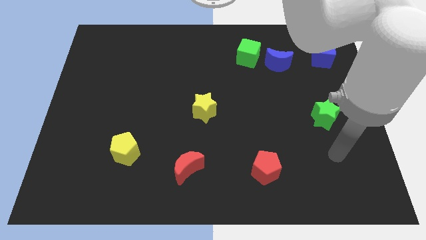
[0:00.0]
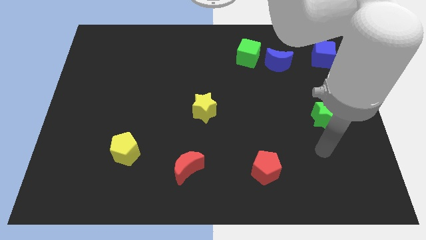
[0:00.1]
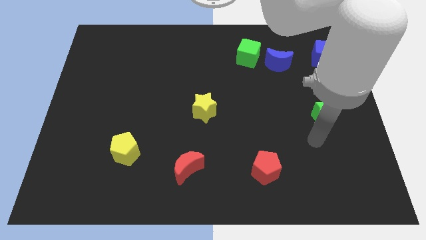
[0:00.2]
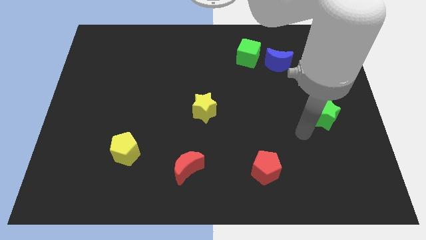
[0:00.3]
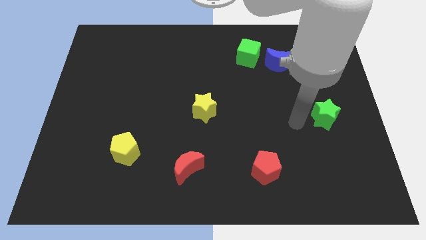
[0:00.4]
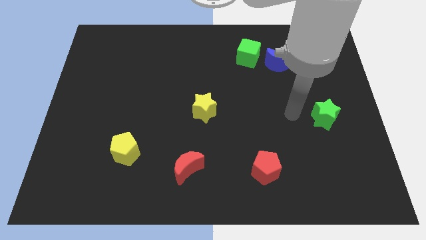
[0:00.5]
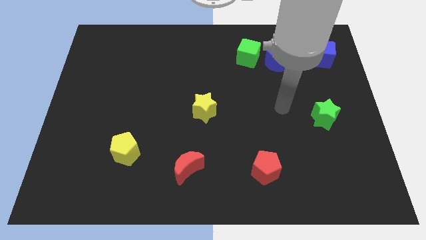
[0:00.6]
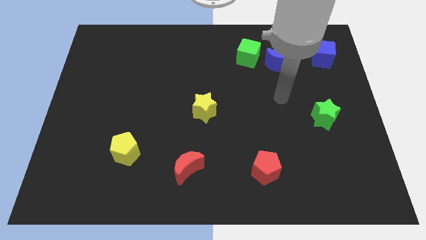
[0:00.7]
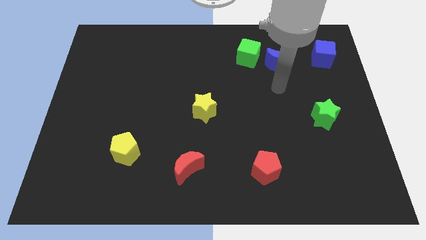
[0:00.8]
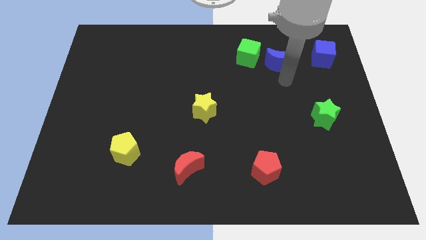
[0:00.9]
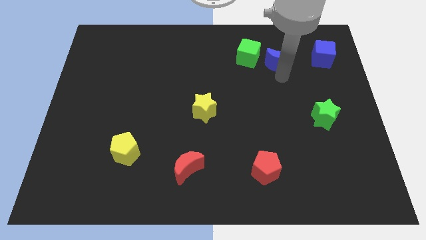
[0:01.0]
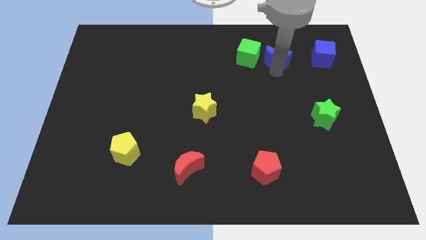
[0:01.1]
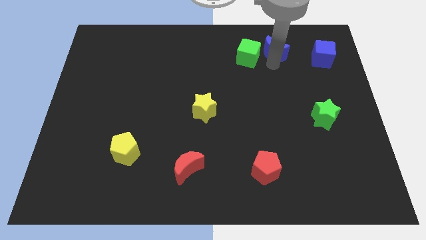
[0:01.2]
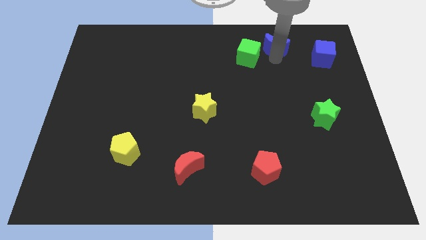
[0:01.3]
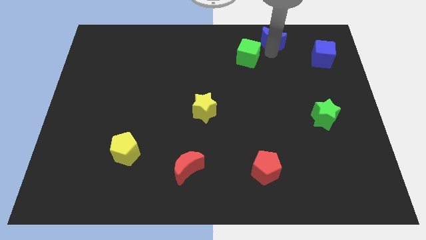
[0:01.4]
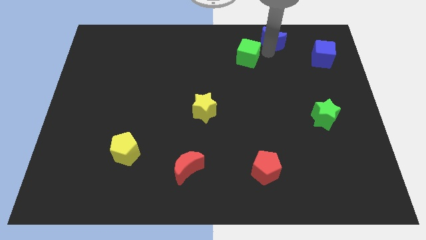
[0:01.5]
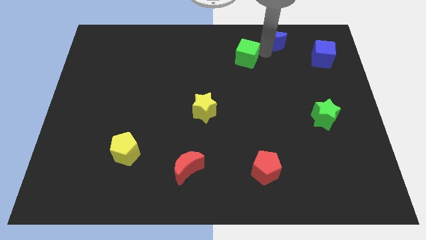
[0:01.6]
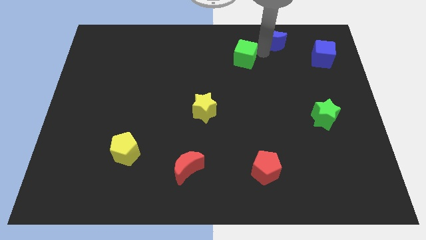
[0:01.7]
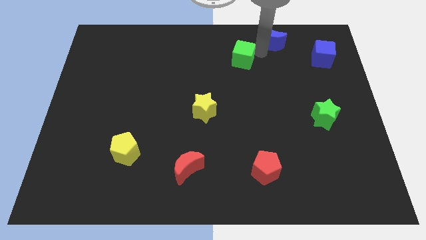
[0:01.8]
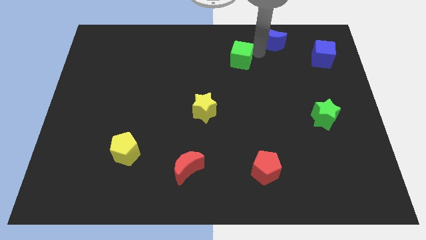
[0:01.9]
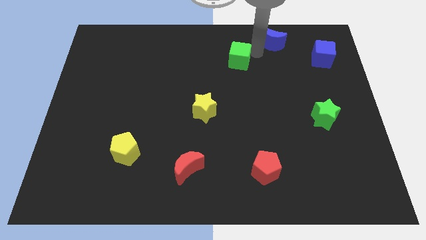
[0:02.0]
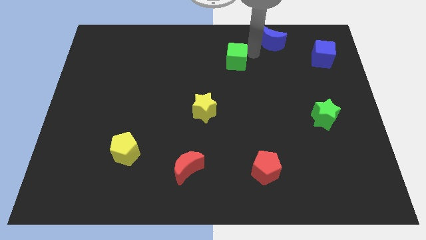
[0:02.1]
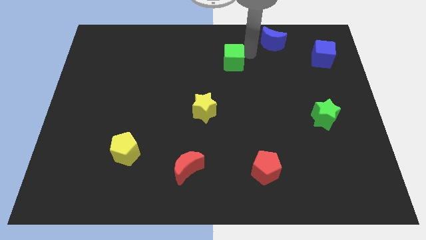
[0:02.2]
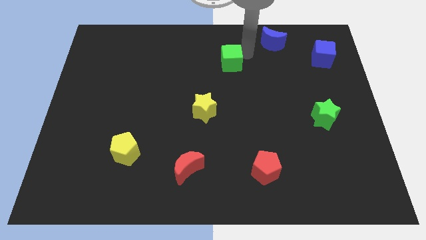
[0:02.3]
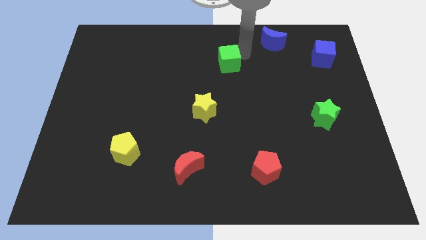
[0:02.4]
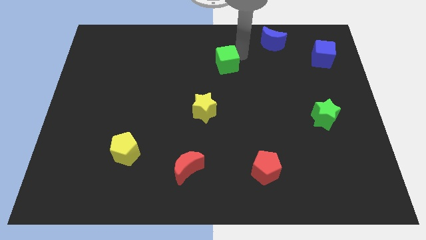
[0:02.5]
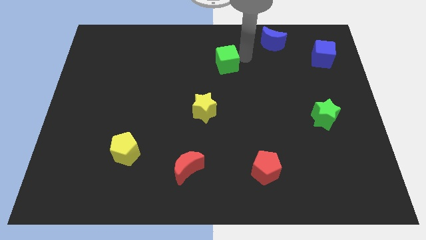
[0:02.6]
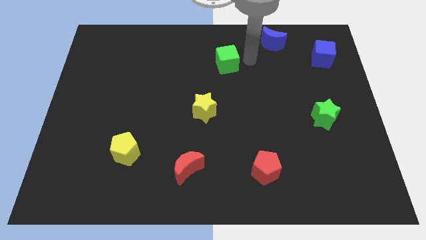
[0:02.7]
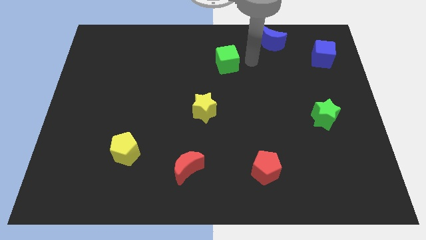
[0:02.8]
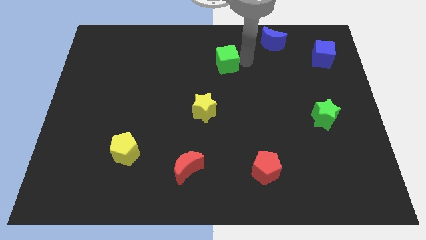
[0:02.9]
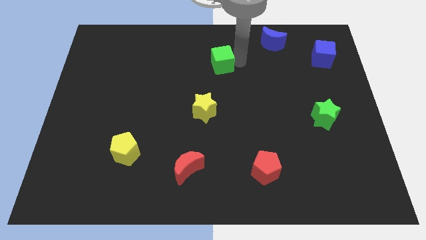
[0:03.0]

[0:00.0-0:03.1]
move the green cube left slightly

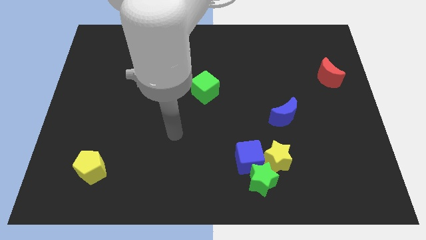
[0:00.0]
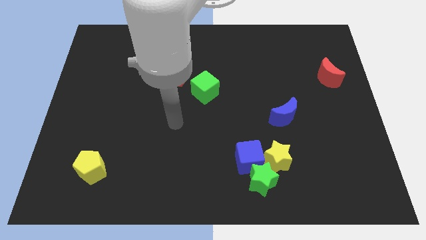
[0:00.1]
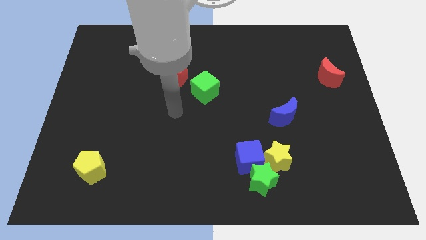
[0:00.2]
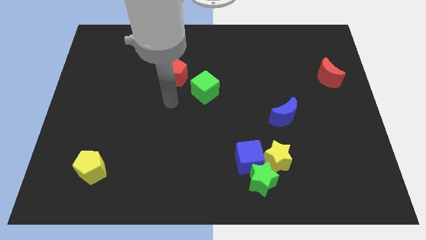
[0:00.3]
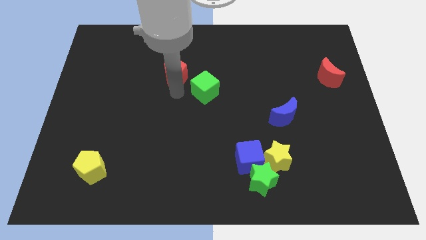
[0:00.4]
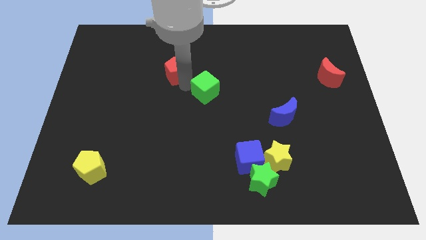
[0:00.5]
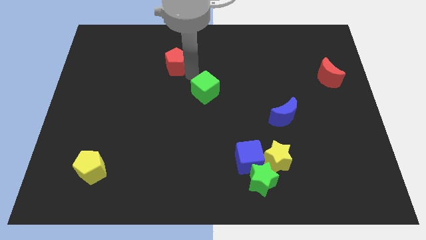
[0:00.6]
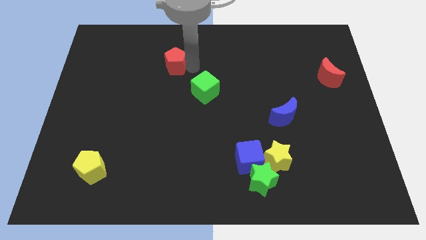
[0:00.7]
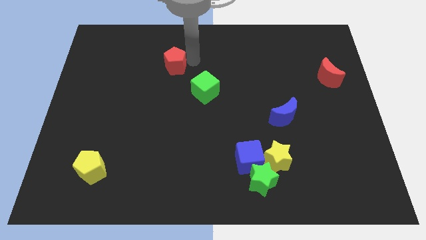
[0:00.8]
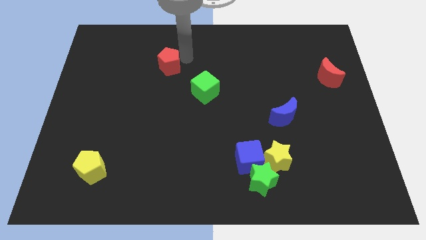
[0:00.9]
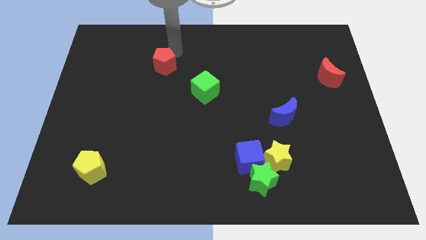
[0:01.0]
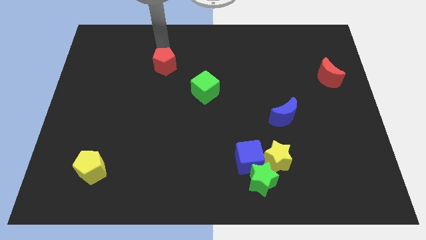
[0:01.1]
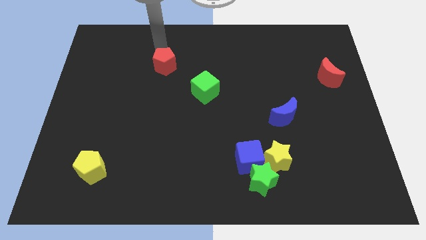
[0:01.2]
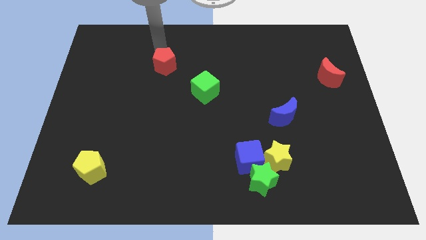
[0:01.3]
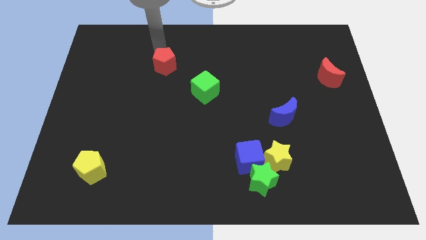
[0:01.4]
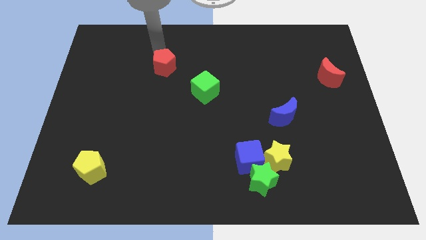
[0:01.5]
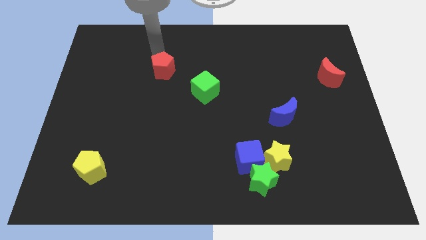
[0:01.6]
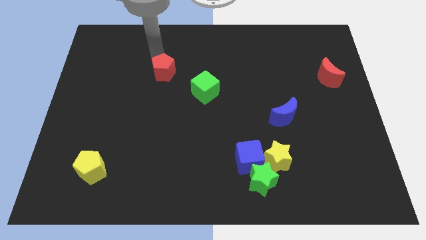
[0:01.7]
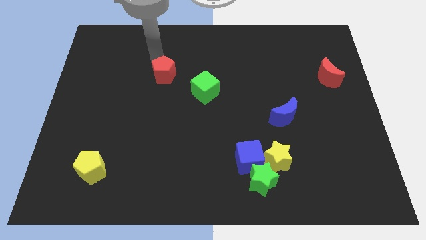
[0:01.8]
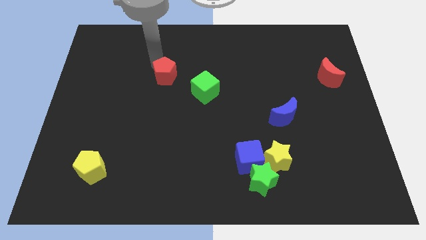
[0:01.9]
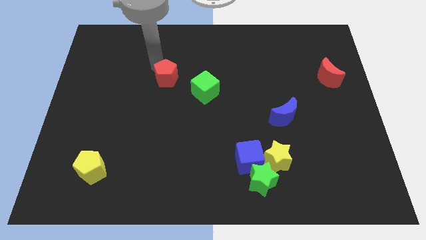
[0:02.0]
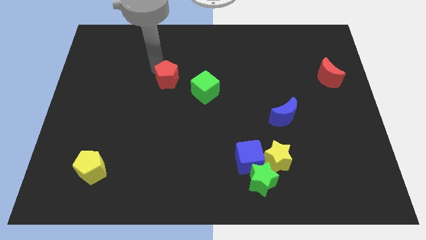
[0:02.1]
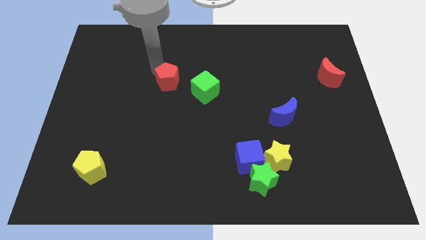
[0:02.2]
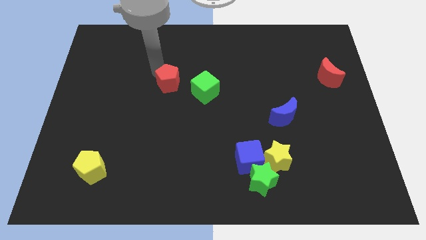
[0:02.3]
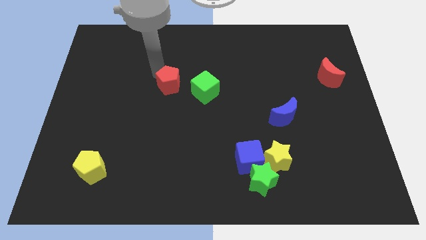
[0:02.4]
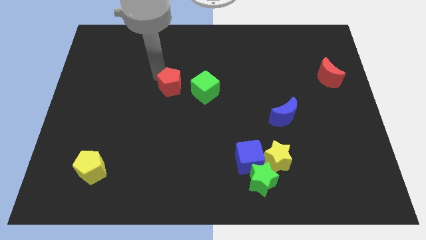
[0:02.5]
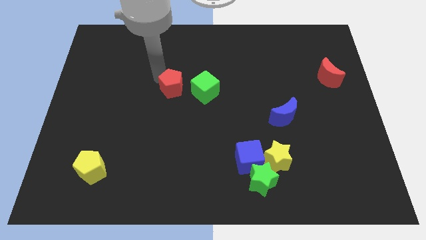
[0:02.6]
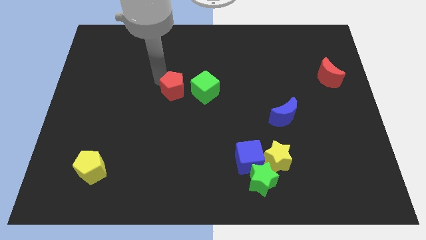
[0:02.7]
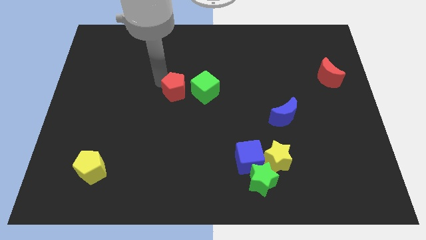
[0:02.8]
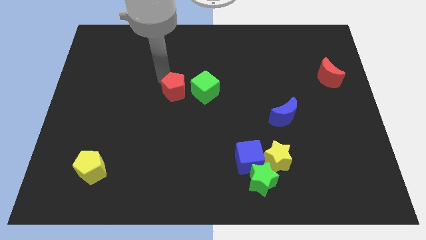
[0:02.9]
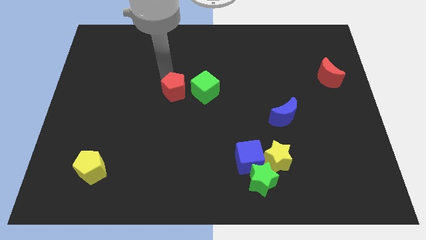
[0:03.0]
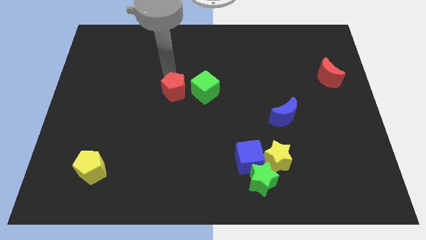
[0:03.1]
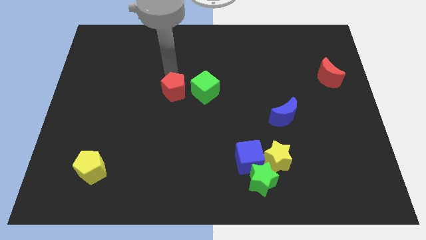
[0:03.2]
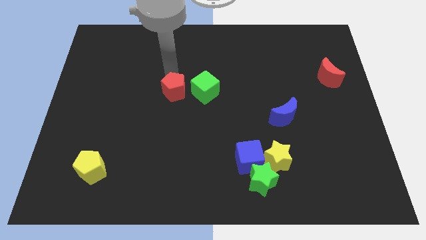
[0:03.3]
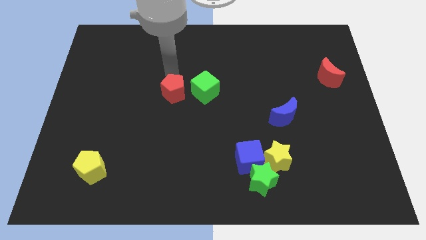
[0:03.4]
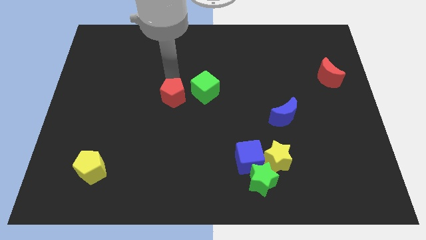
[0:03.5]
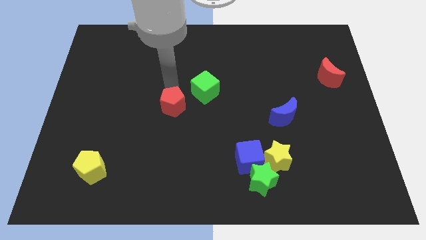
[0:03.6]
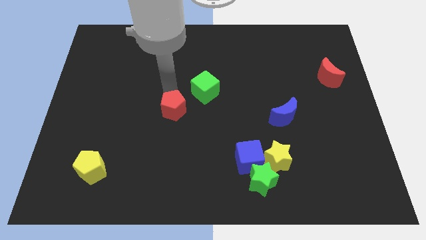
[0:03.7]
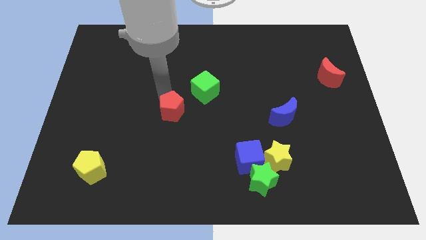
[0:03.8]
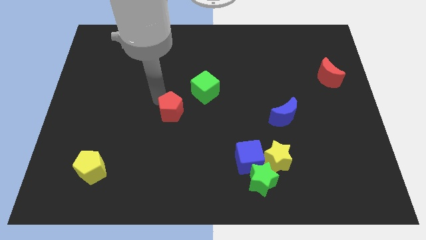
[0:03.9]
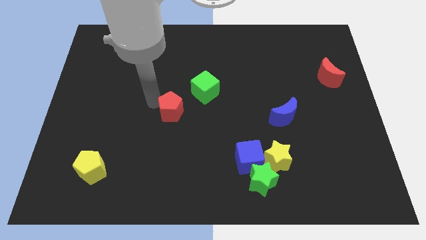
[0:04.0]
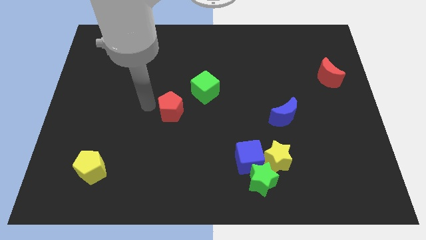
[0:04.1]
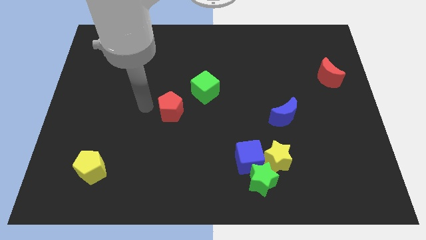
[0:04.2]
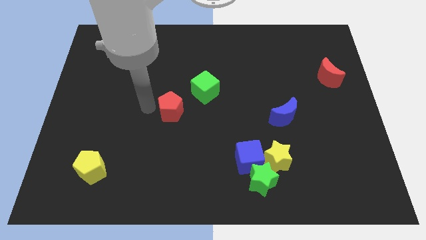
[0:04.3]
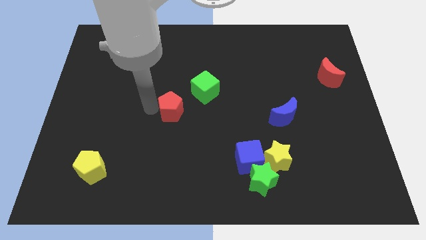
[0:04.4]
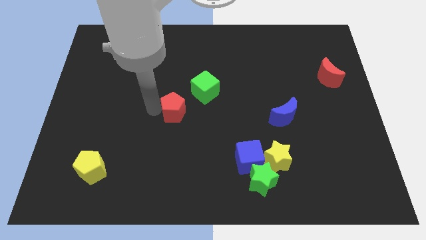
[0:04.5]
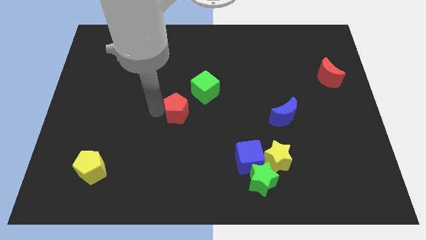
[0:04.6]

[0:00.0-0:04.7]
push the red pentagon downwards and then right a little bit

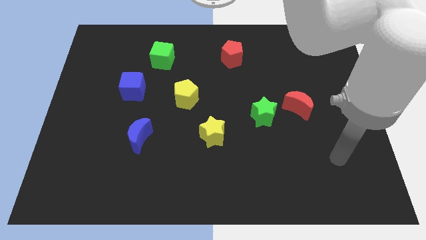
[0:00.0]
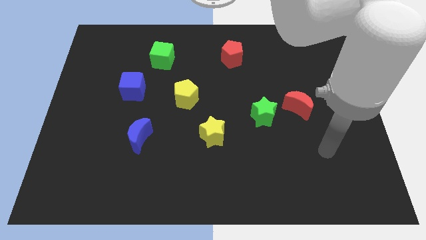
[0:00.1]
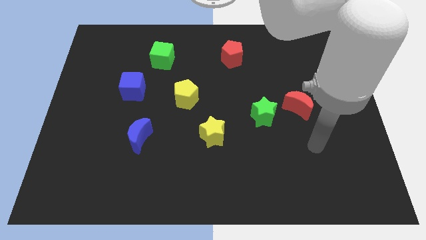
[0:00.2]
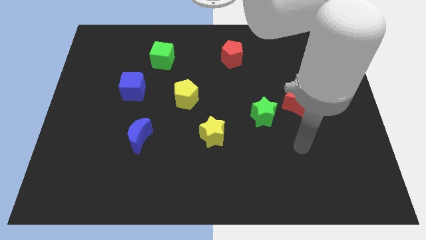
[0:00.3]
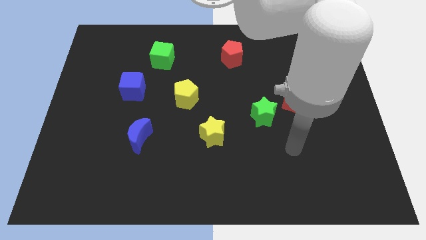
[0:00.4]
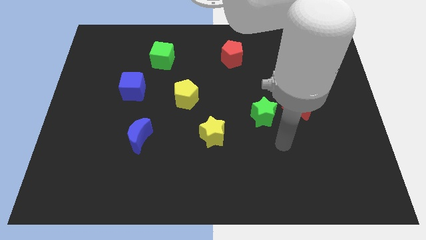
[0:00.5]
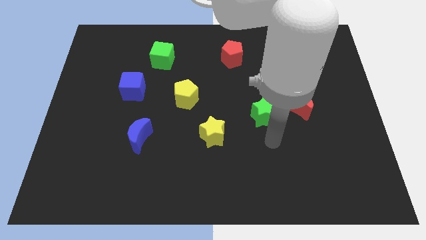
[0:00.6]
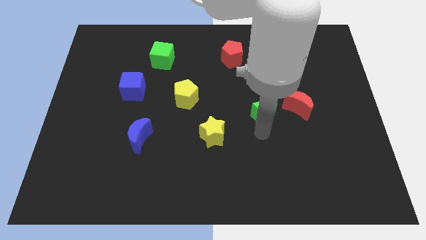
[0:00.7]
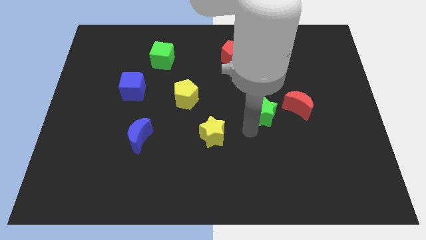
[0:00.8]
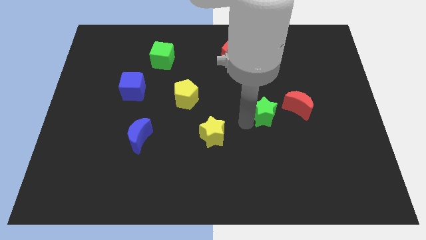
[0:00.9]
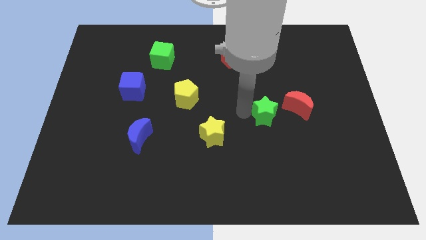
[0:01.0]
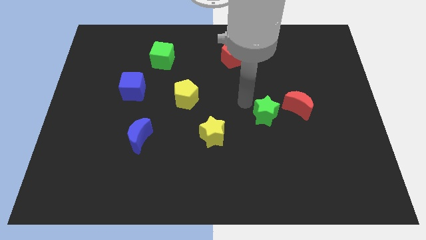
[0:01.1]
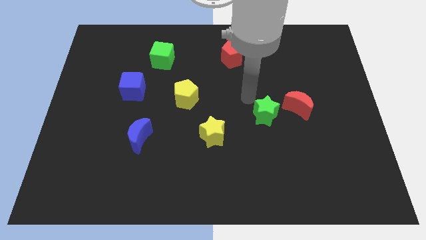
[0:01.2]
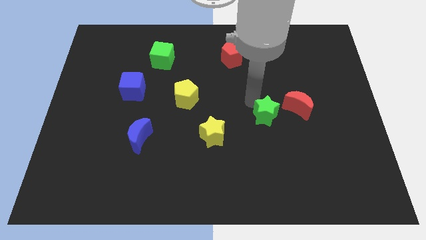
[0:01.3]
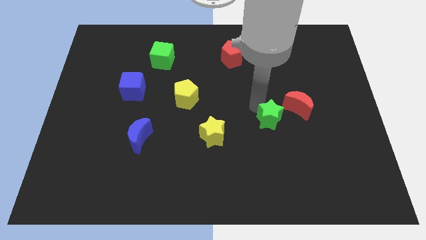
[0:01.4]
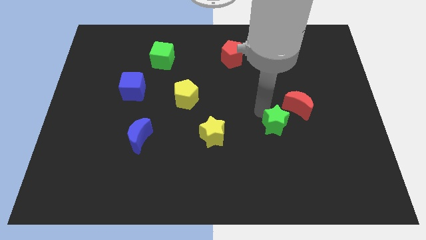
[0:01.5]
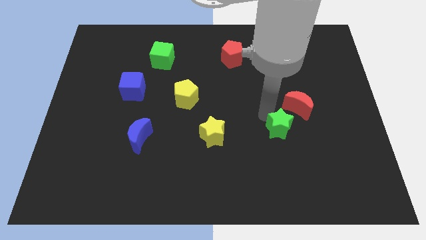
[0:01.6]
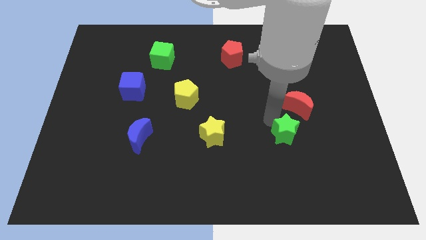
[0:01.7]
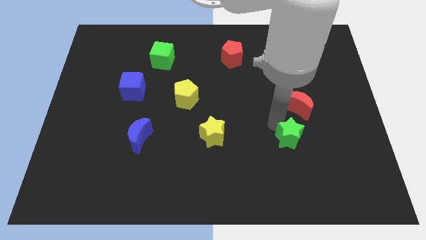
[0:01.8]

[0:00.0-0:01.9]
move the green star slightly diagonally down and right
